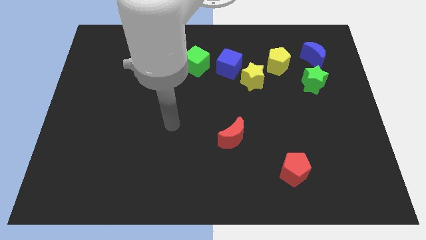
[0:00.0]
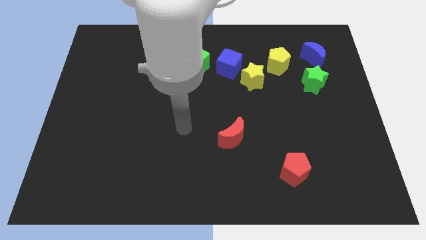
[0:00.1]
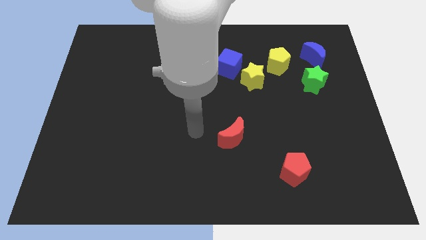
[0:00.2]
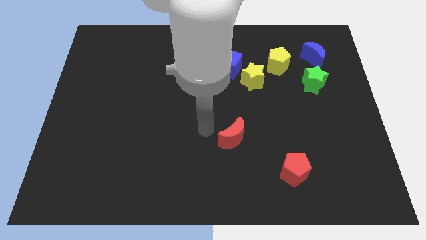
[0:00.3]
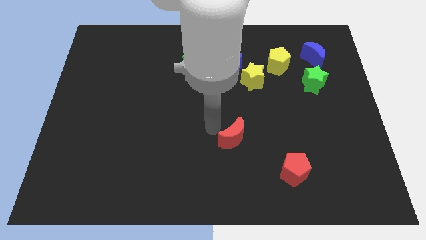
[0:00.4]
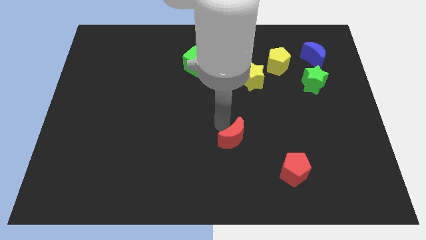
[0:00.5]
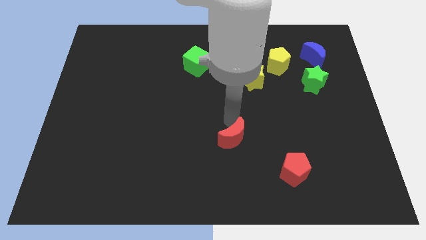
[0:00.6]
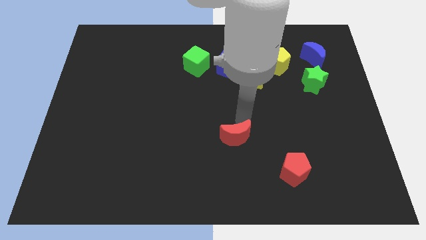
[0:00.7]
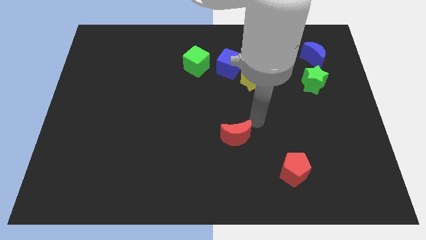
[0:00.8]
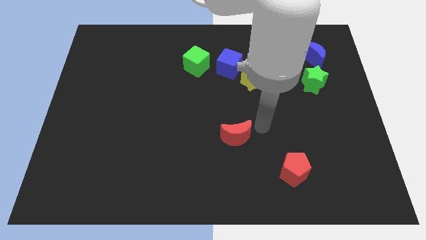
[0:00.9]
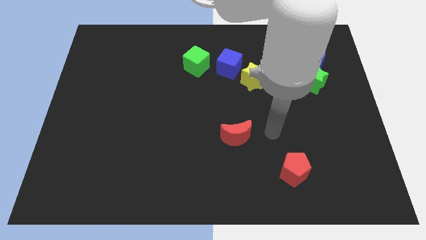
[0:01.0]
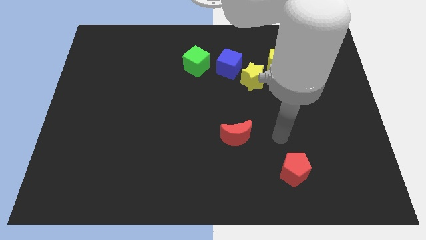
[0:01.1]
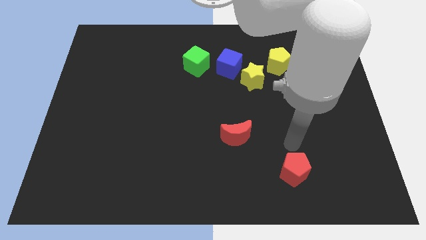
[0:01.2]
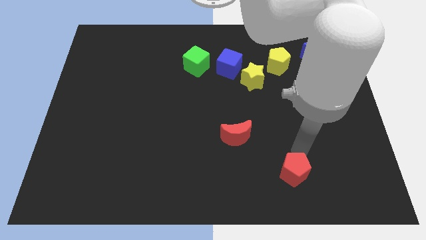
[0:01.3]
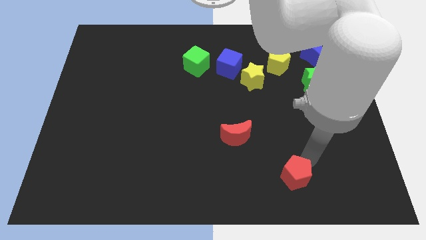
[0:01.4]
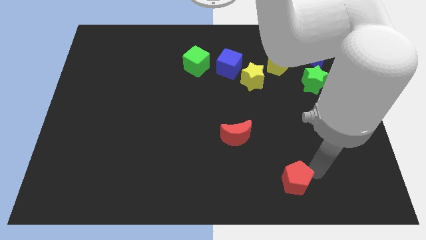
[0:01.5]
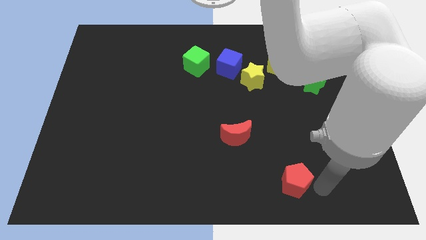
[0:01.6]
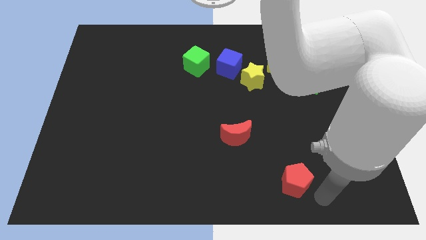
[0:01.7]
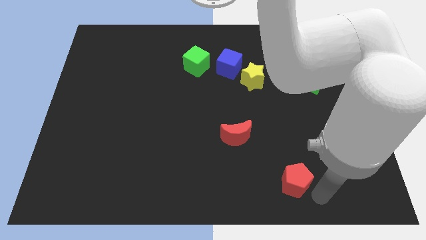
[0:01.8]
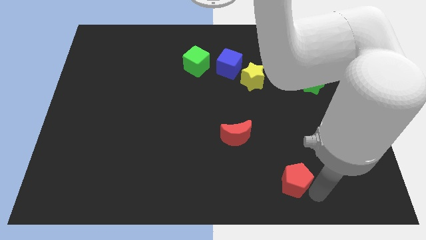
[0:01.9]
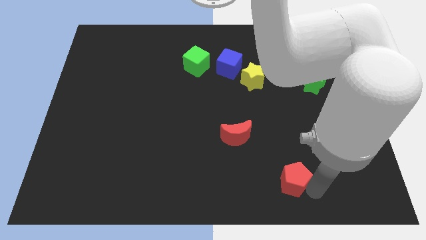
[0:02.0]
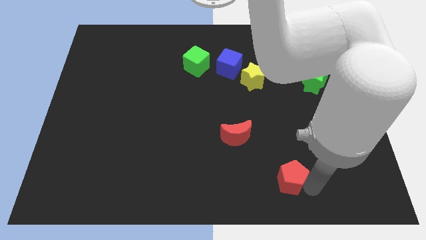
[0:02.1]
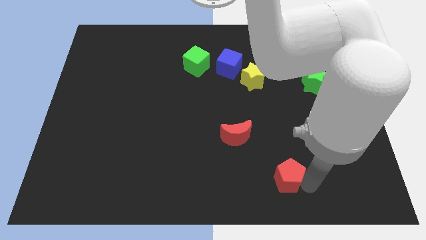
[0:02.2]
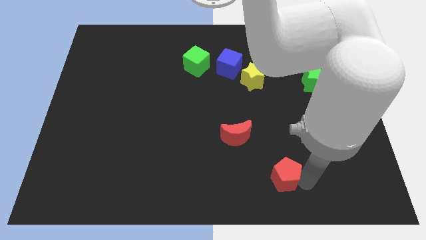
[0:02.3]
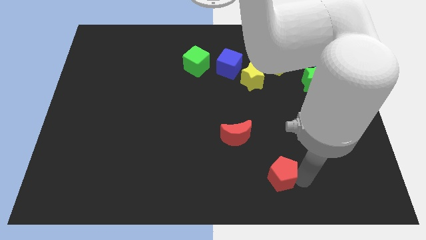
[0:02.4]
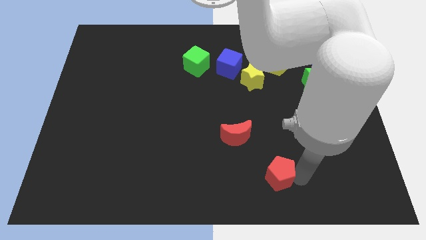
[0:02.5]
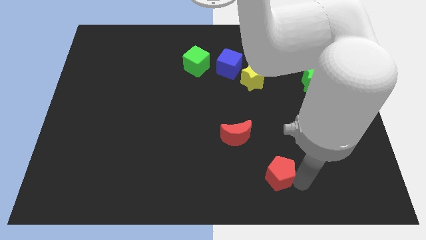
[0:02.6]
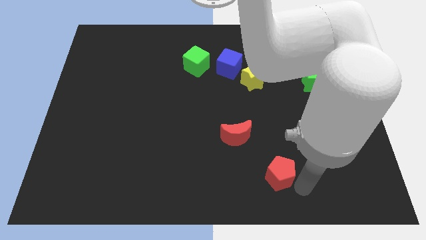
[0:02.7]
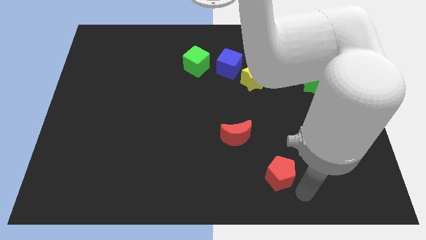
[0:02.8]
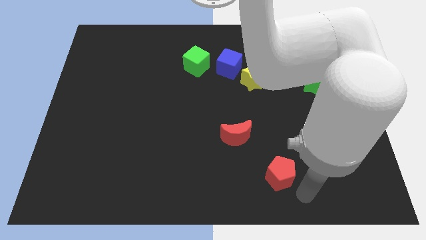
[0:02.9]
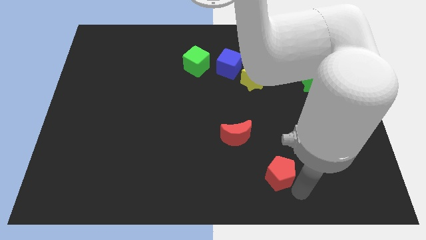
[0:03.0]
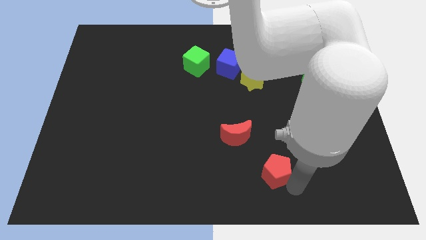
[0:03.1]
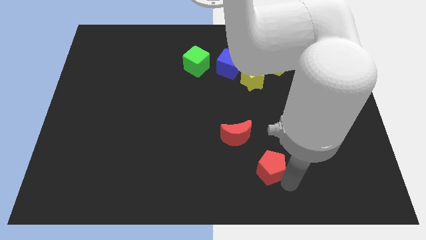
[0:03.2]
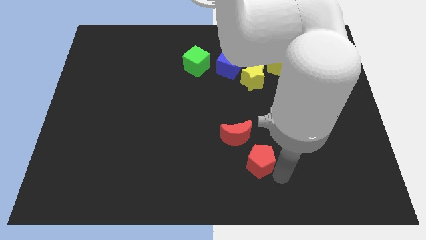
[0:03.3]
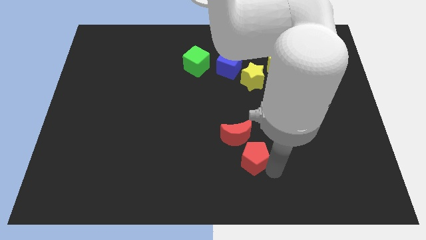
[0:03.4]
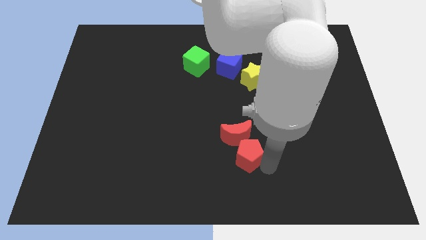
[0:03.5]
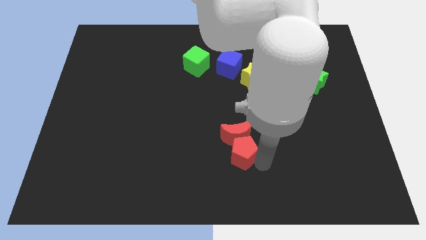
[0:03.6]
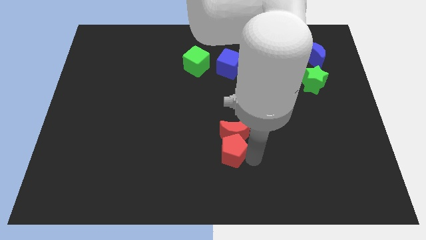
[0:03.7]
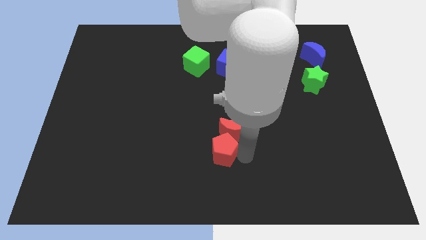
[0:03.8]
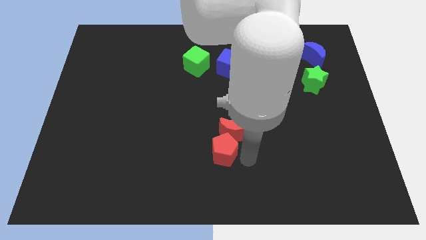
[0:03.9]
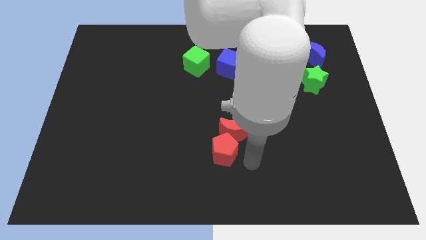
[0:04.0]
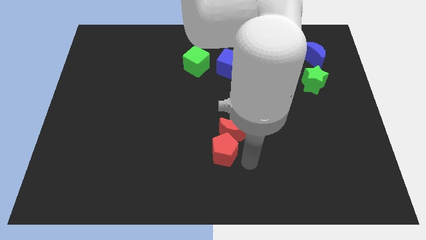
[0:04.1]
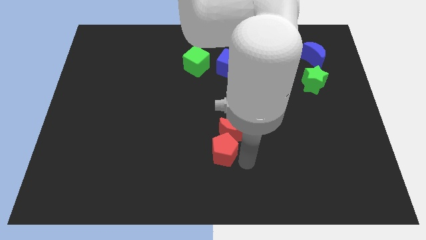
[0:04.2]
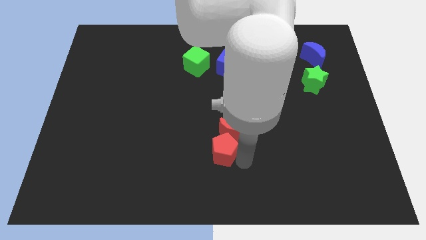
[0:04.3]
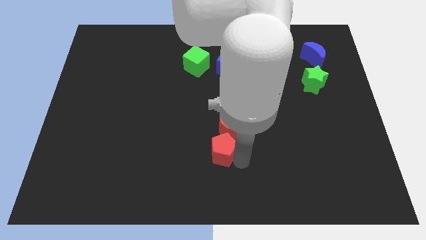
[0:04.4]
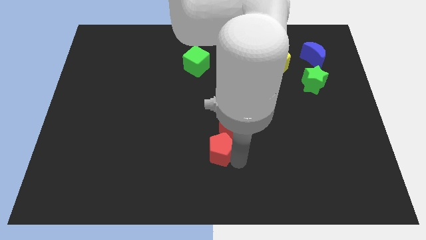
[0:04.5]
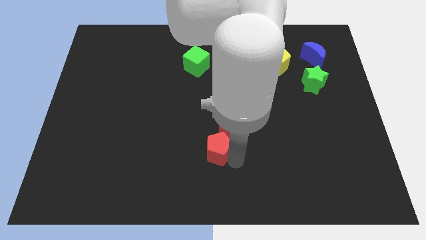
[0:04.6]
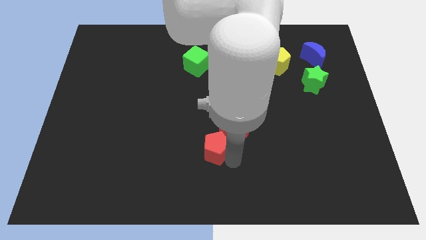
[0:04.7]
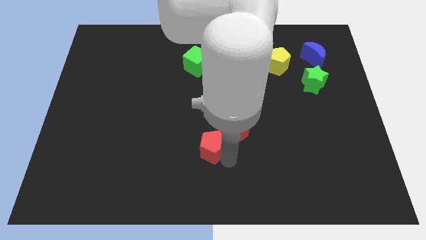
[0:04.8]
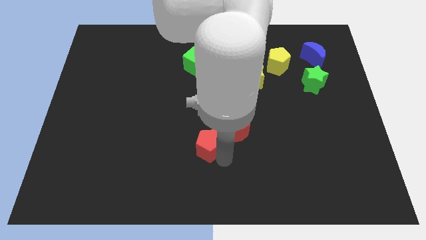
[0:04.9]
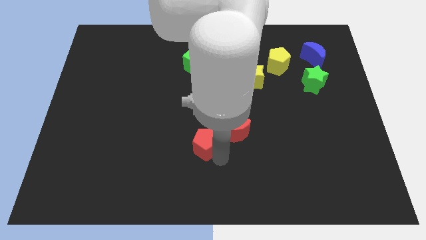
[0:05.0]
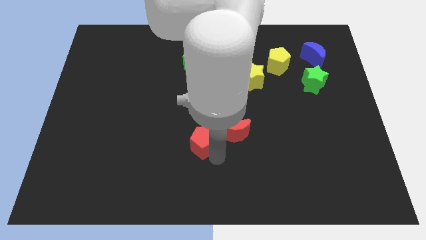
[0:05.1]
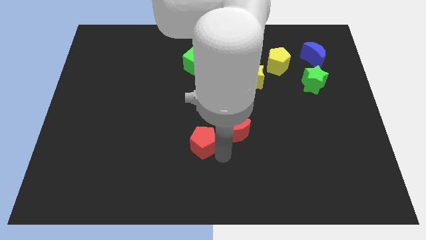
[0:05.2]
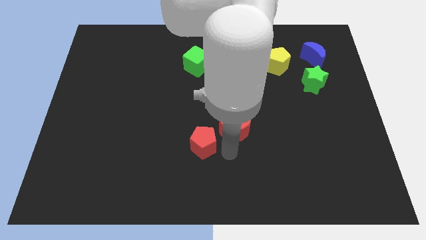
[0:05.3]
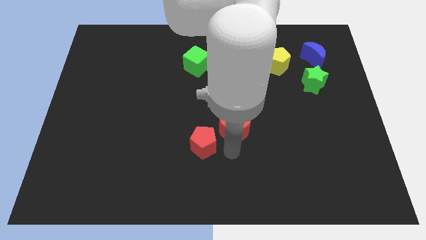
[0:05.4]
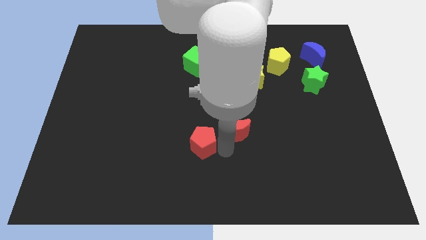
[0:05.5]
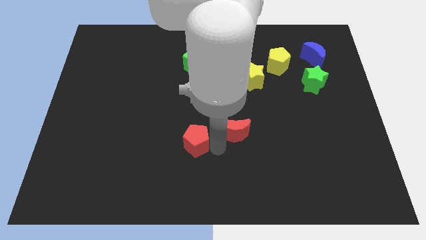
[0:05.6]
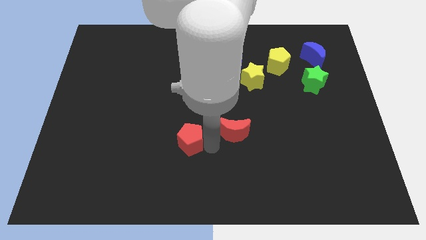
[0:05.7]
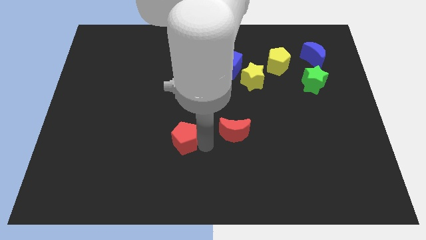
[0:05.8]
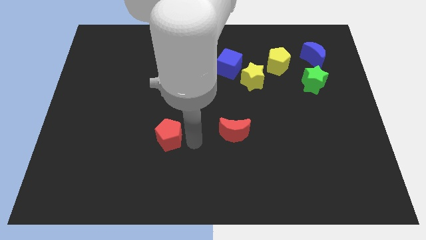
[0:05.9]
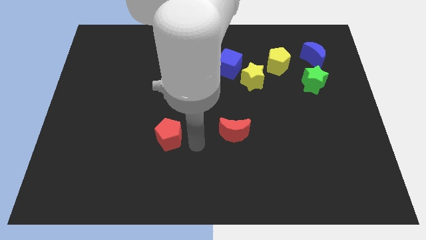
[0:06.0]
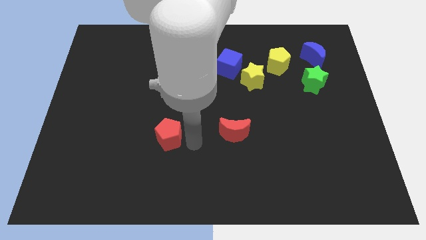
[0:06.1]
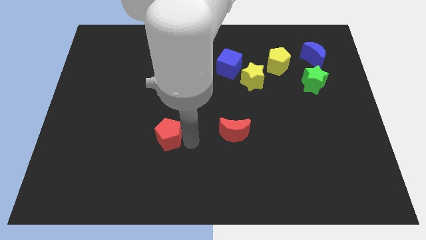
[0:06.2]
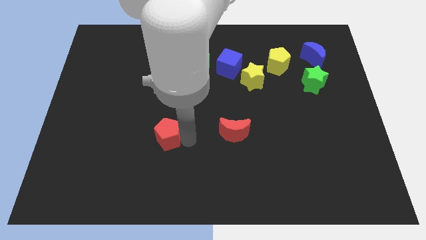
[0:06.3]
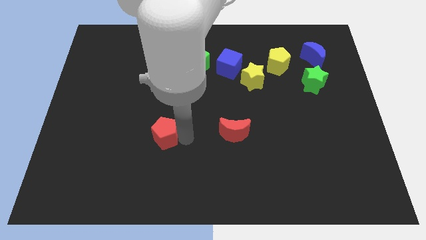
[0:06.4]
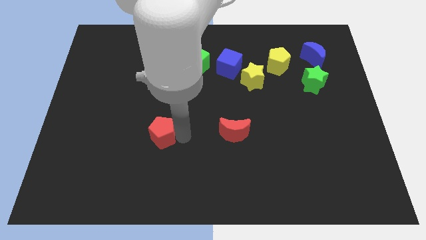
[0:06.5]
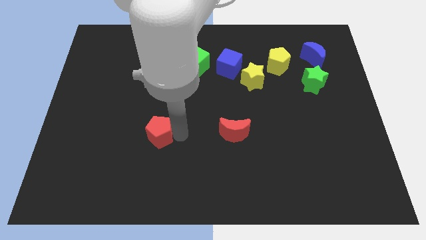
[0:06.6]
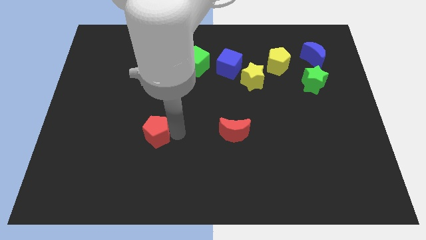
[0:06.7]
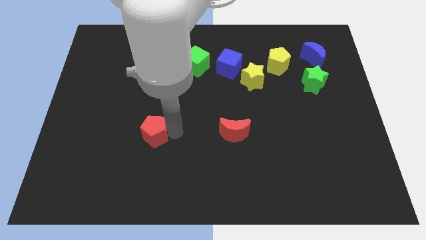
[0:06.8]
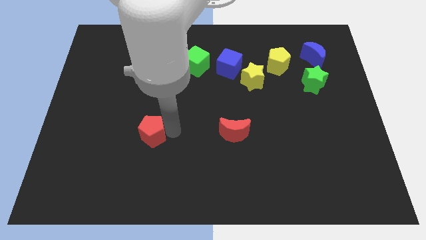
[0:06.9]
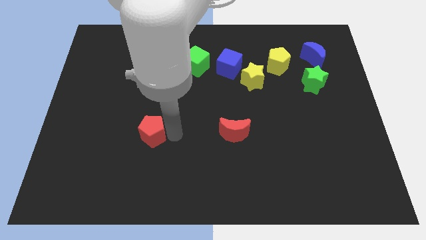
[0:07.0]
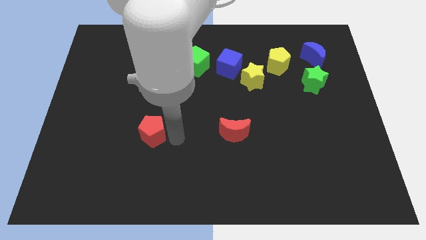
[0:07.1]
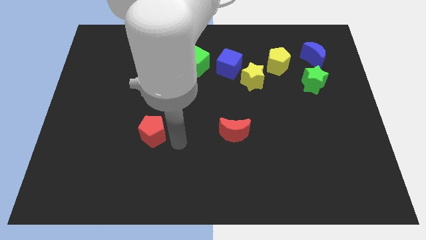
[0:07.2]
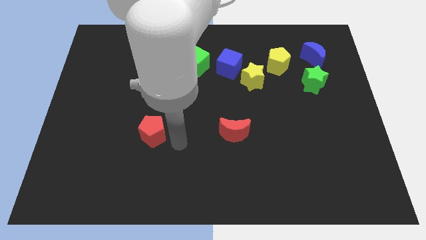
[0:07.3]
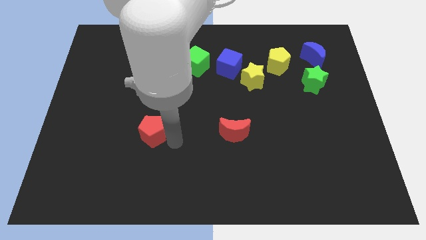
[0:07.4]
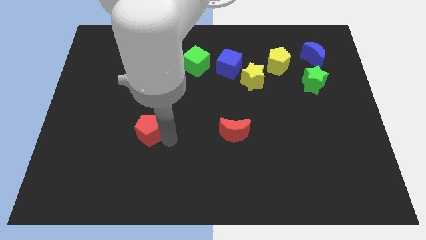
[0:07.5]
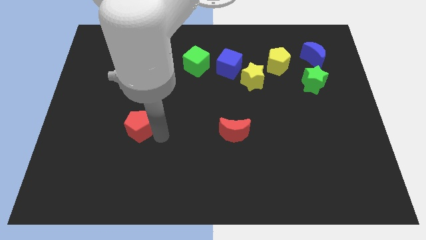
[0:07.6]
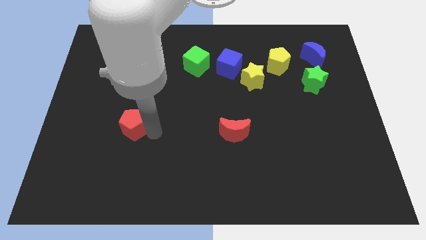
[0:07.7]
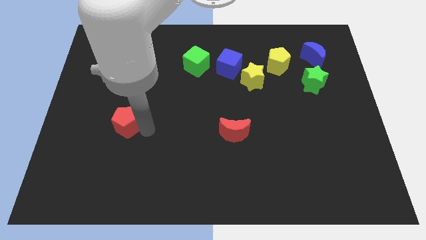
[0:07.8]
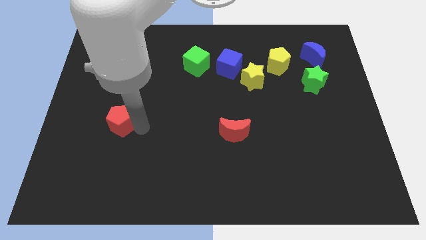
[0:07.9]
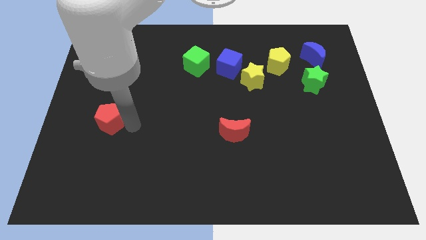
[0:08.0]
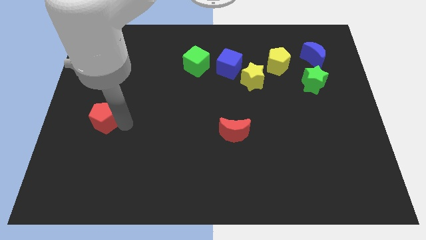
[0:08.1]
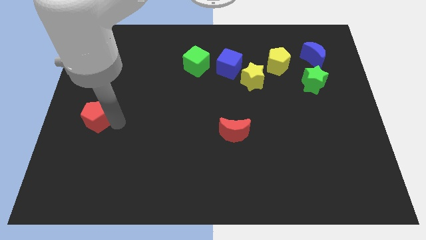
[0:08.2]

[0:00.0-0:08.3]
move the red pentagon to the left side of the board
